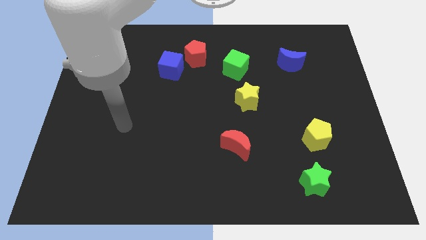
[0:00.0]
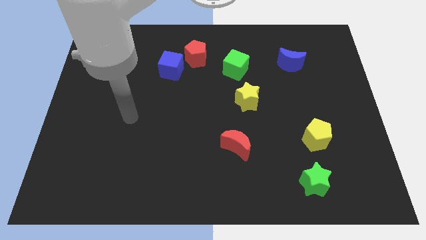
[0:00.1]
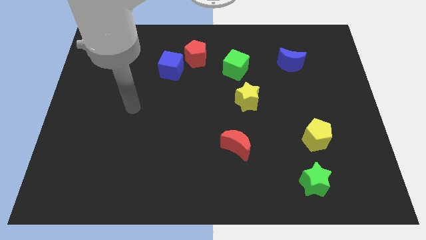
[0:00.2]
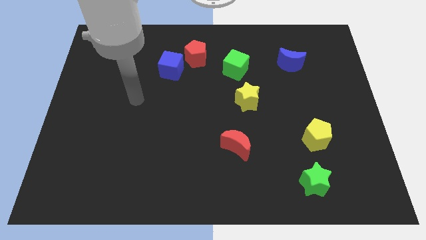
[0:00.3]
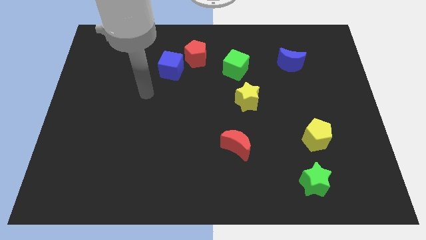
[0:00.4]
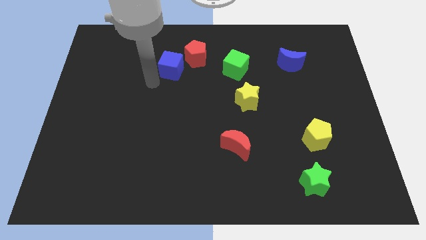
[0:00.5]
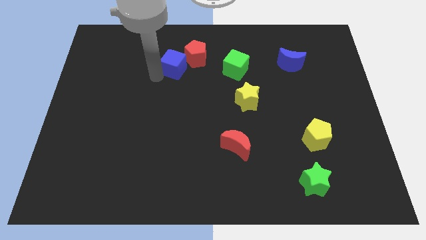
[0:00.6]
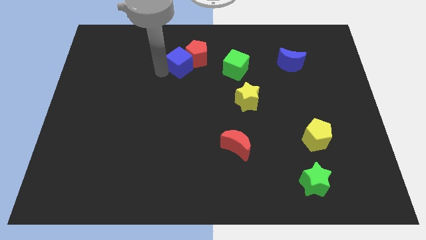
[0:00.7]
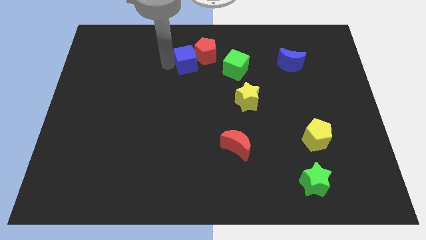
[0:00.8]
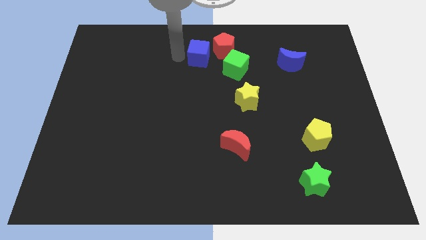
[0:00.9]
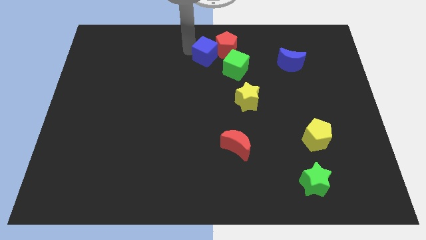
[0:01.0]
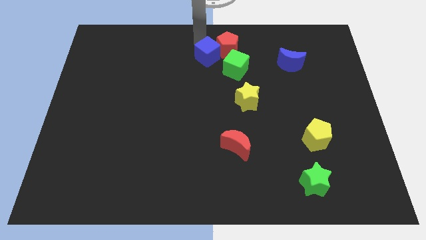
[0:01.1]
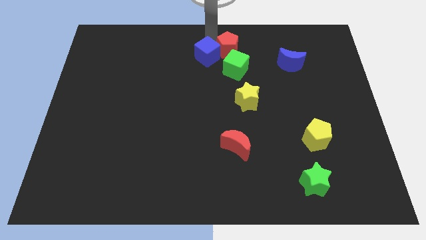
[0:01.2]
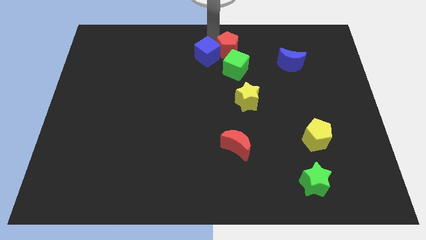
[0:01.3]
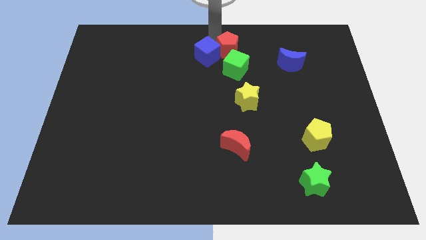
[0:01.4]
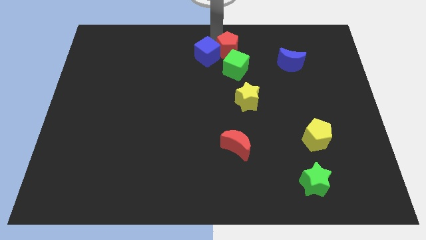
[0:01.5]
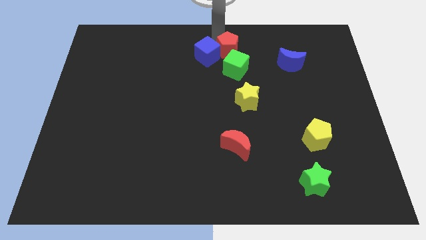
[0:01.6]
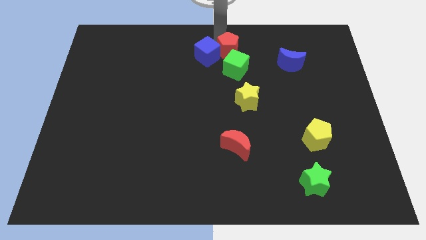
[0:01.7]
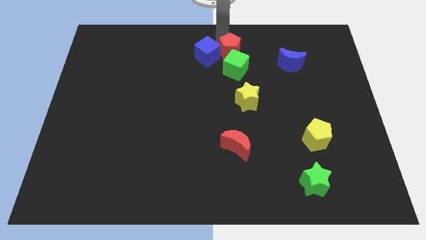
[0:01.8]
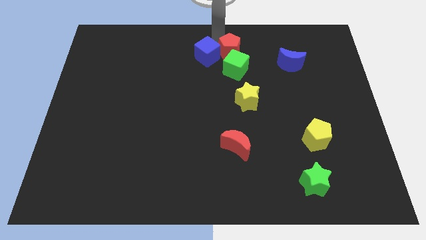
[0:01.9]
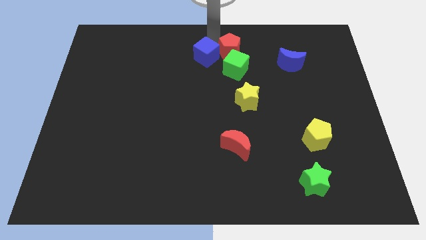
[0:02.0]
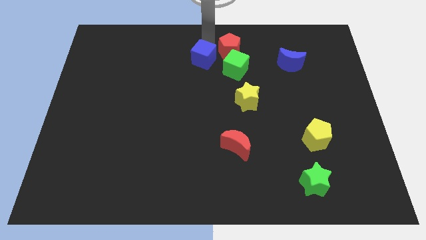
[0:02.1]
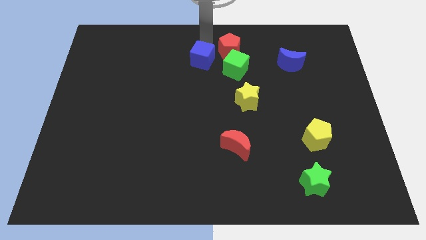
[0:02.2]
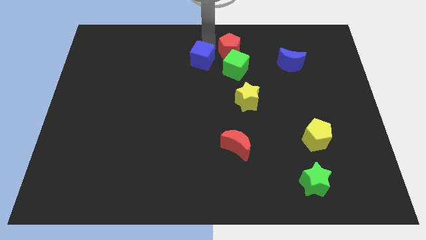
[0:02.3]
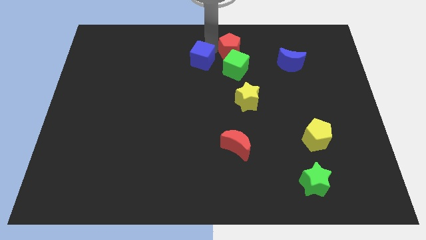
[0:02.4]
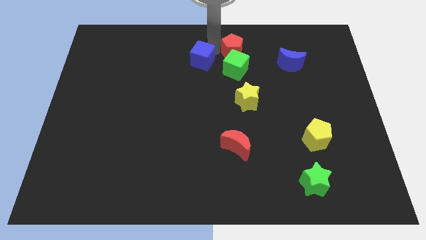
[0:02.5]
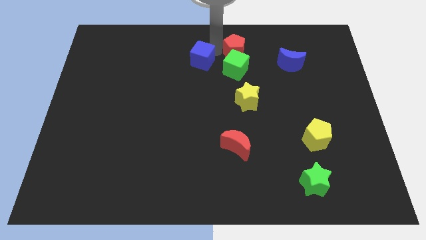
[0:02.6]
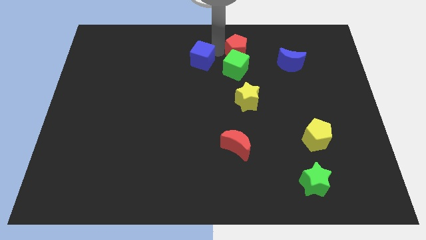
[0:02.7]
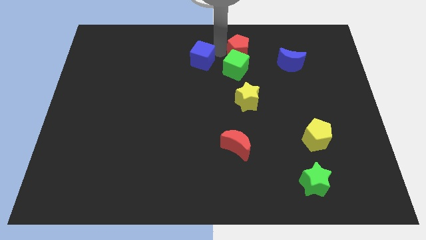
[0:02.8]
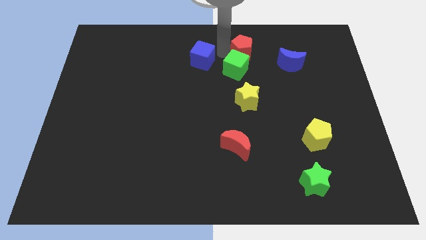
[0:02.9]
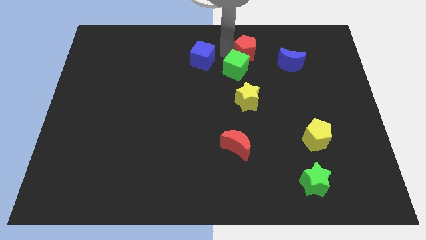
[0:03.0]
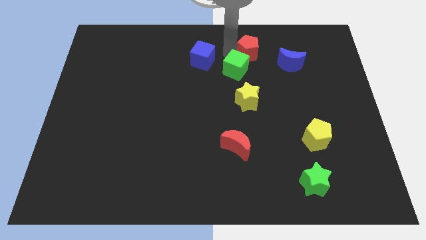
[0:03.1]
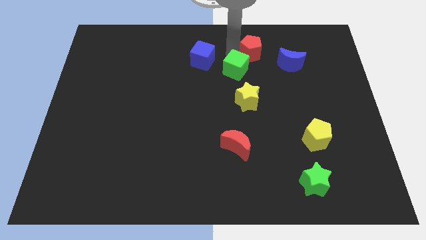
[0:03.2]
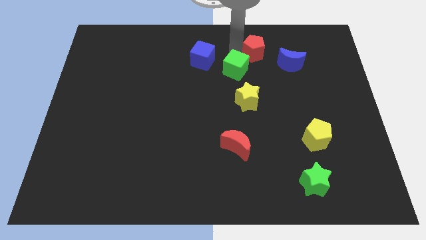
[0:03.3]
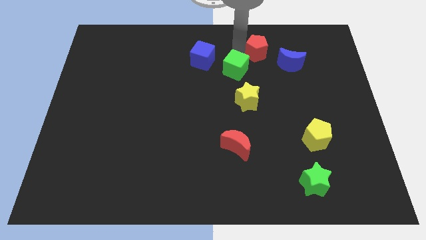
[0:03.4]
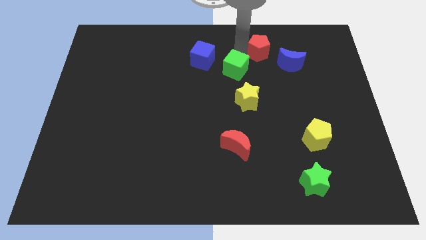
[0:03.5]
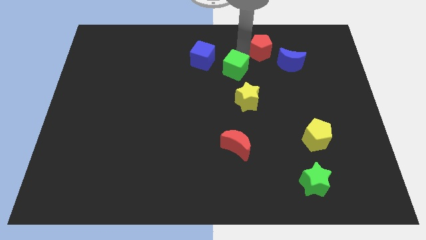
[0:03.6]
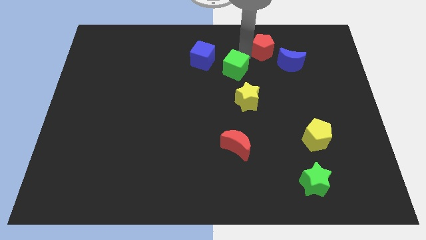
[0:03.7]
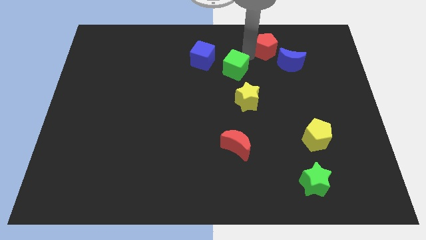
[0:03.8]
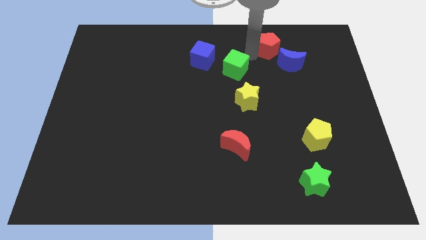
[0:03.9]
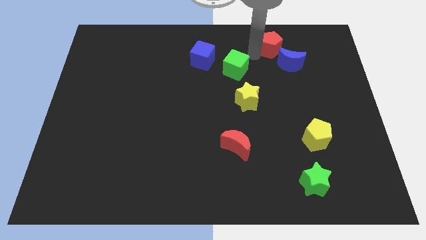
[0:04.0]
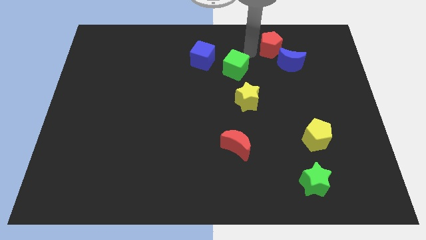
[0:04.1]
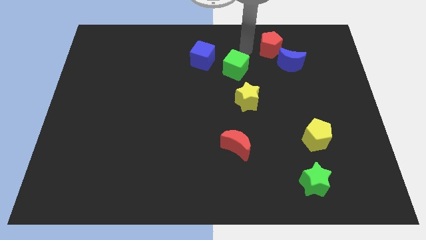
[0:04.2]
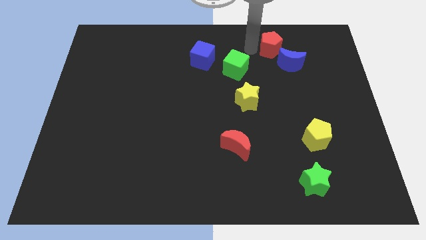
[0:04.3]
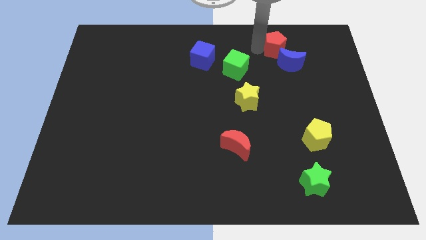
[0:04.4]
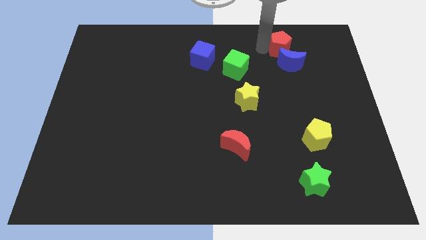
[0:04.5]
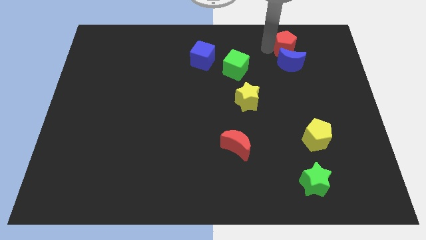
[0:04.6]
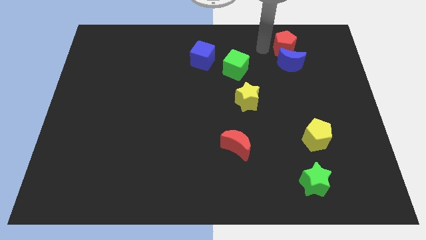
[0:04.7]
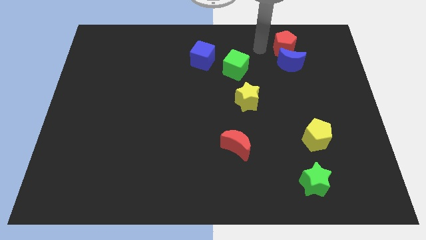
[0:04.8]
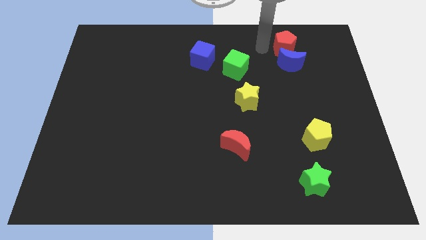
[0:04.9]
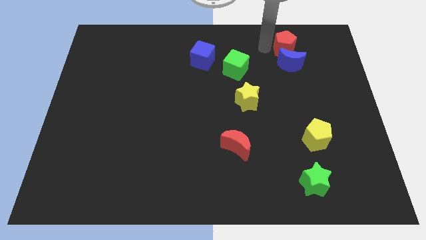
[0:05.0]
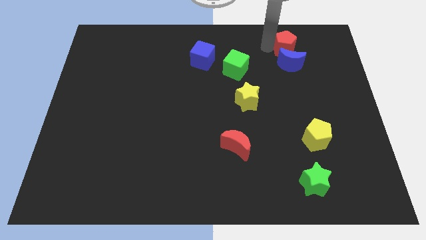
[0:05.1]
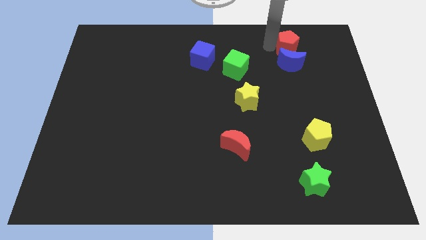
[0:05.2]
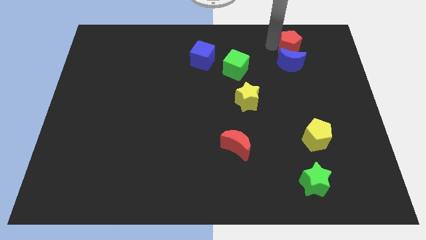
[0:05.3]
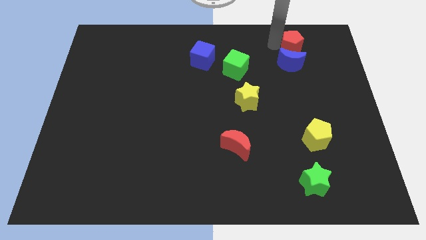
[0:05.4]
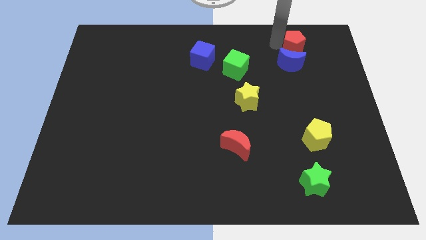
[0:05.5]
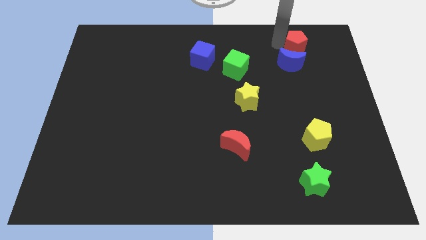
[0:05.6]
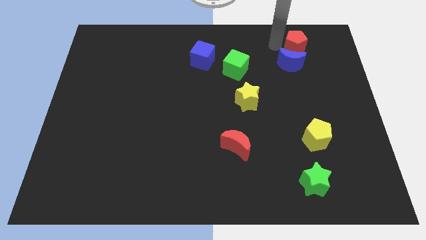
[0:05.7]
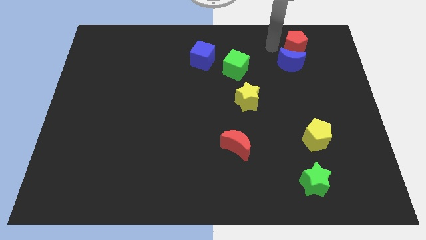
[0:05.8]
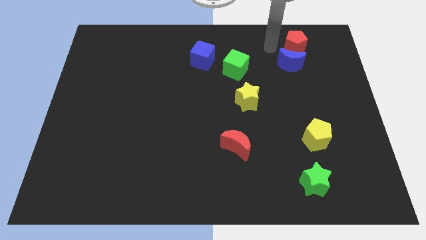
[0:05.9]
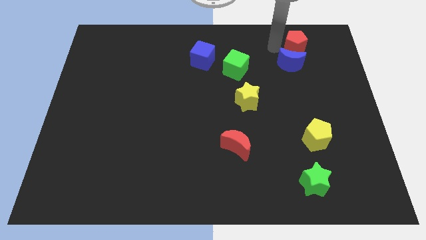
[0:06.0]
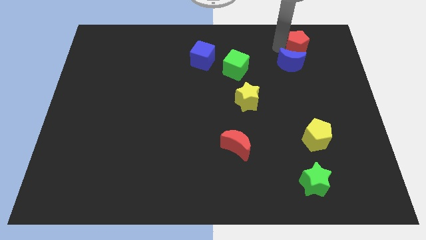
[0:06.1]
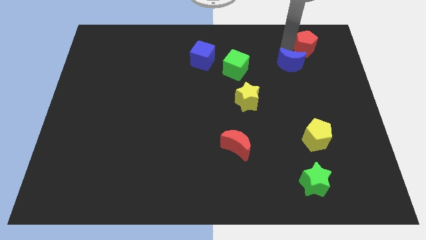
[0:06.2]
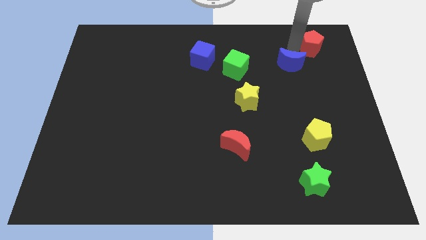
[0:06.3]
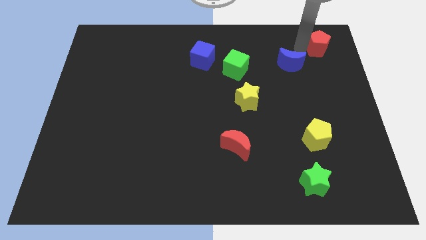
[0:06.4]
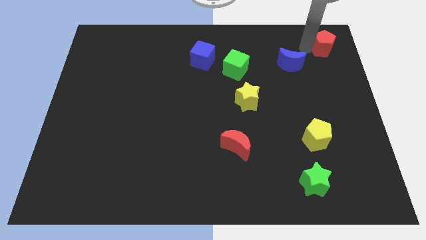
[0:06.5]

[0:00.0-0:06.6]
move the red pentagon to the upper right corner
